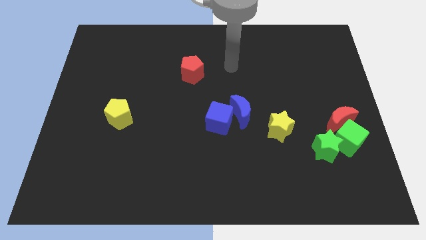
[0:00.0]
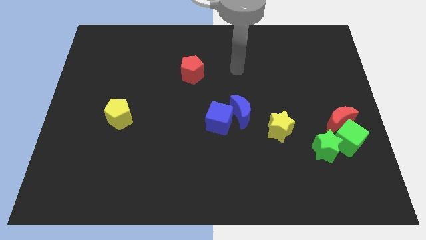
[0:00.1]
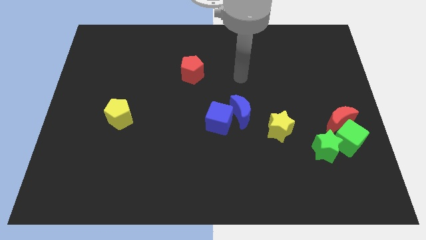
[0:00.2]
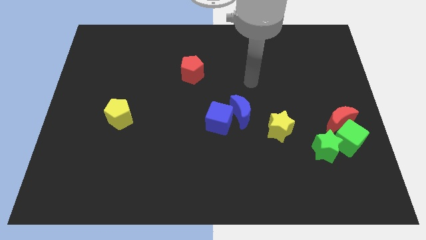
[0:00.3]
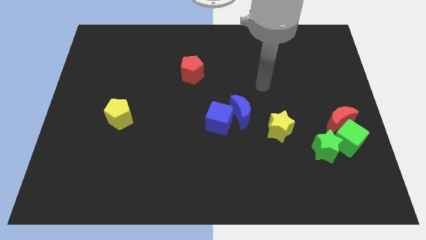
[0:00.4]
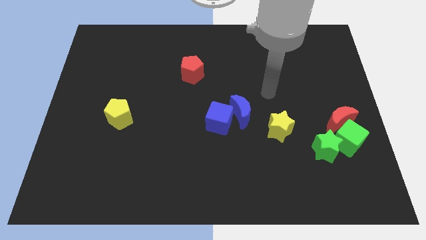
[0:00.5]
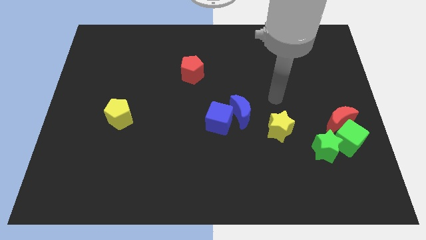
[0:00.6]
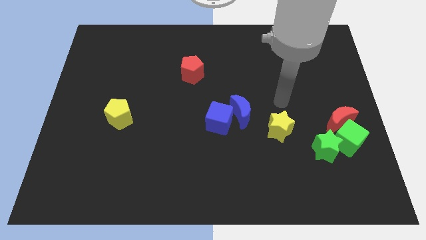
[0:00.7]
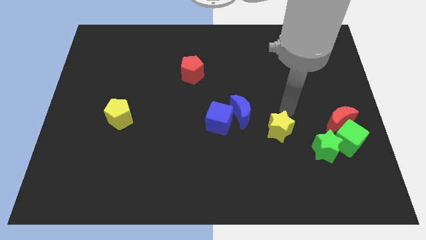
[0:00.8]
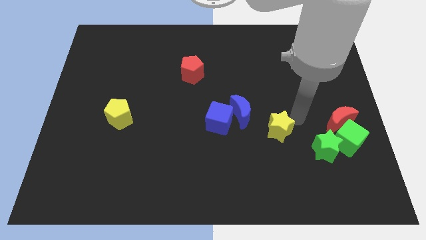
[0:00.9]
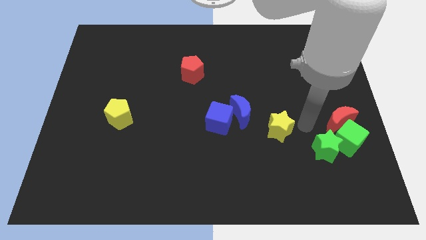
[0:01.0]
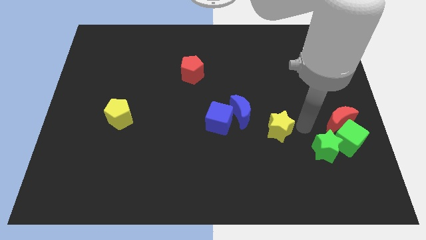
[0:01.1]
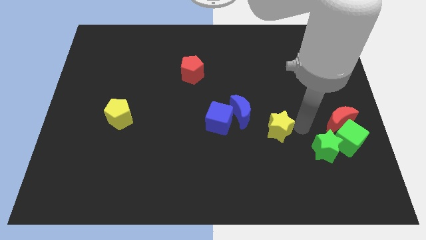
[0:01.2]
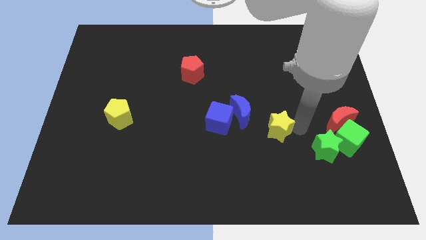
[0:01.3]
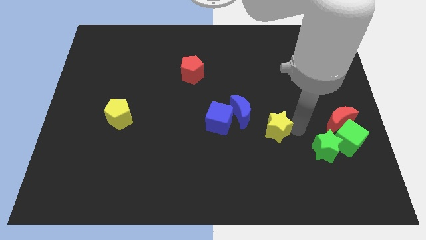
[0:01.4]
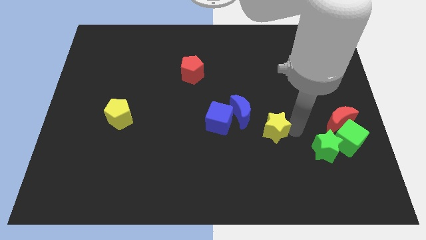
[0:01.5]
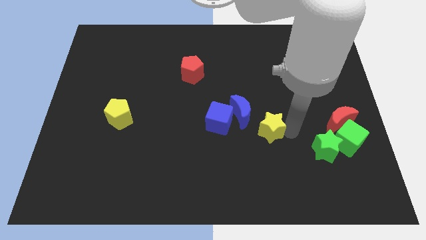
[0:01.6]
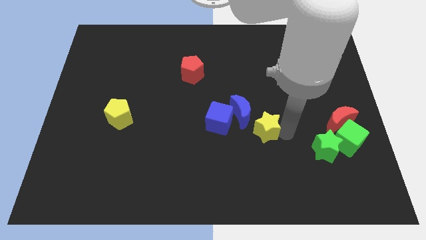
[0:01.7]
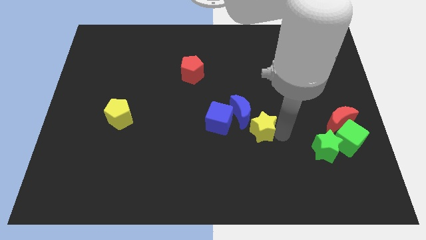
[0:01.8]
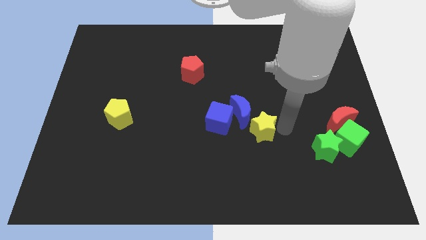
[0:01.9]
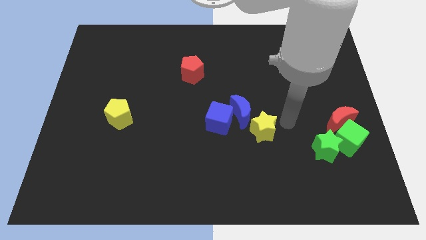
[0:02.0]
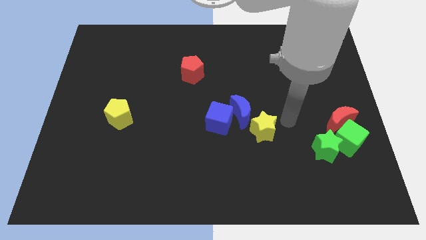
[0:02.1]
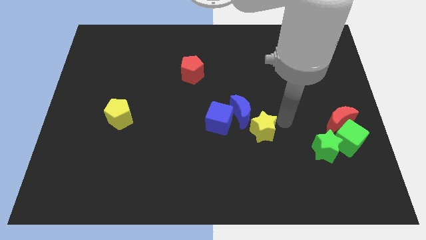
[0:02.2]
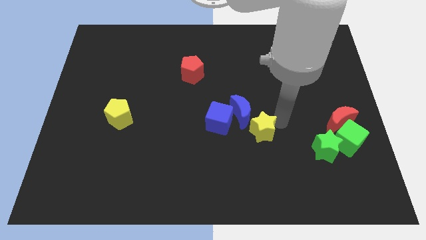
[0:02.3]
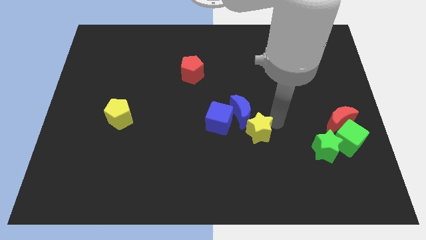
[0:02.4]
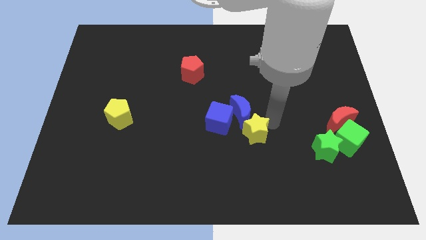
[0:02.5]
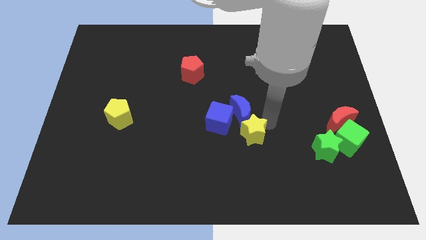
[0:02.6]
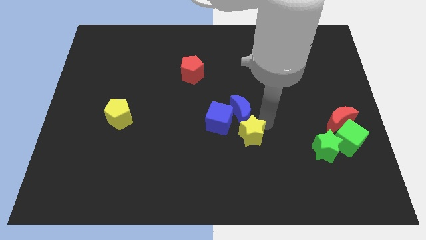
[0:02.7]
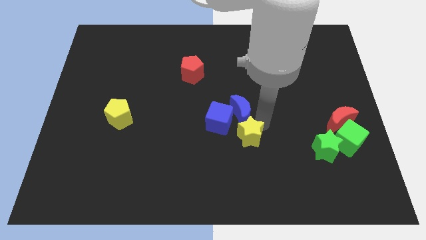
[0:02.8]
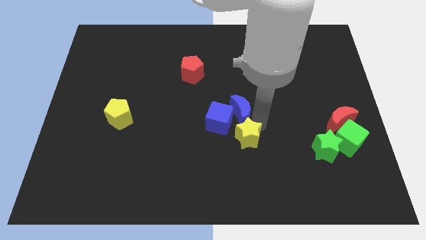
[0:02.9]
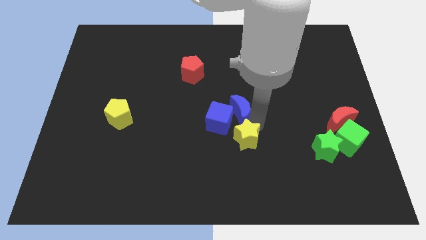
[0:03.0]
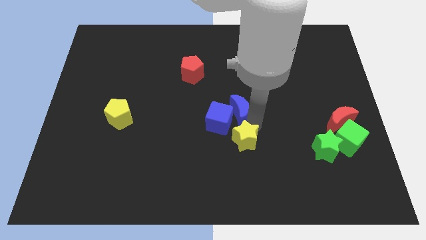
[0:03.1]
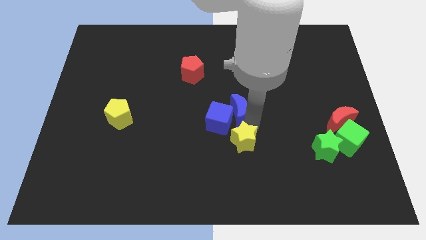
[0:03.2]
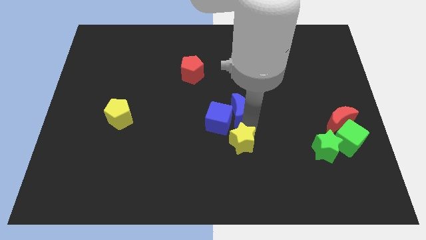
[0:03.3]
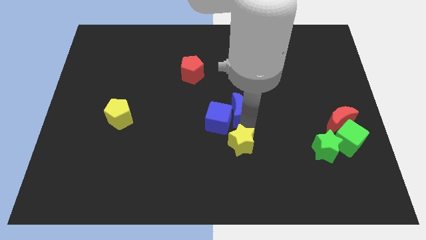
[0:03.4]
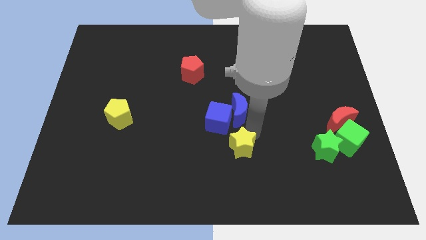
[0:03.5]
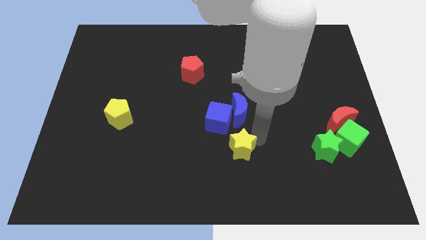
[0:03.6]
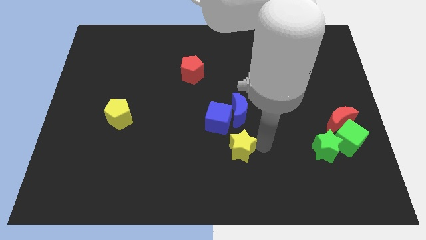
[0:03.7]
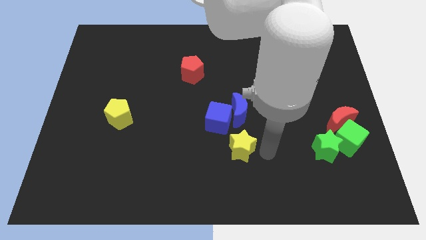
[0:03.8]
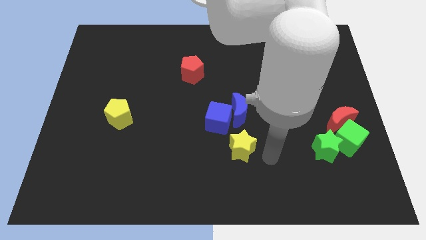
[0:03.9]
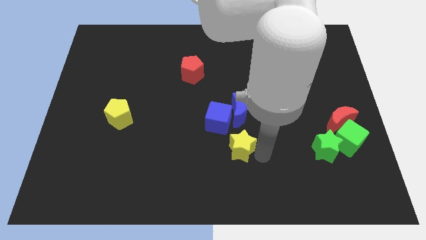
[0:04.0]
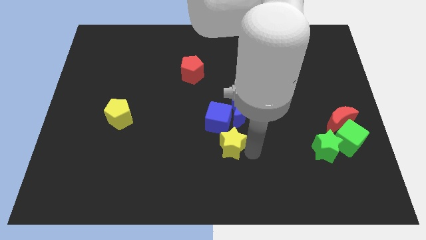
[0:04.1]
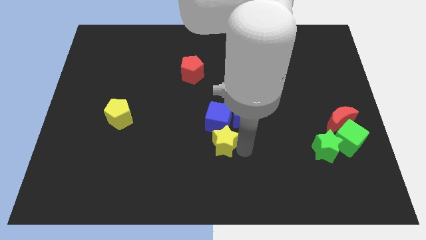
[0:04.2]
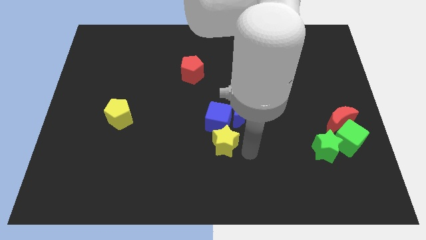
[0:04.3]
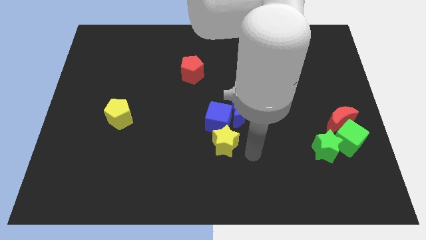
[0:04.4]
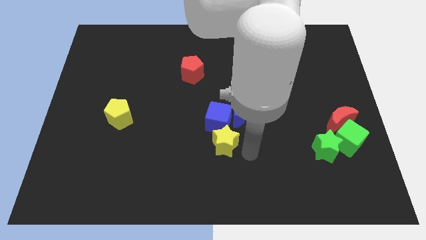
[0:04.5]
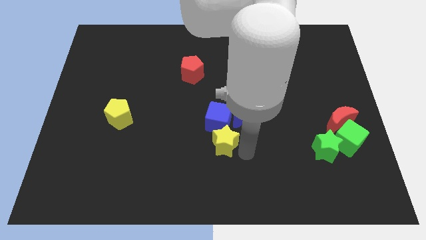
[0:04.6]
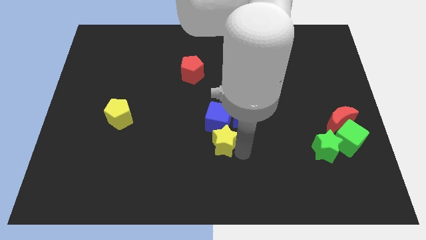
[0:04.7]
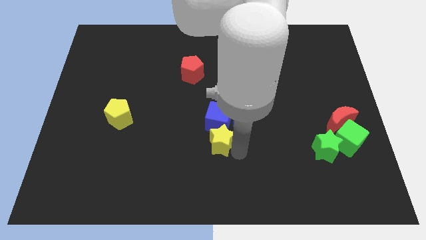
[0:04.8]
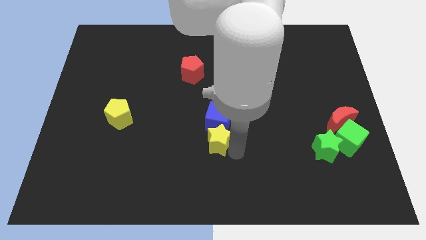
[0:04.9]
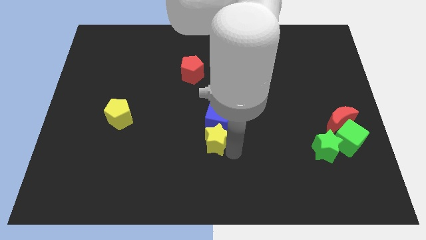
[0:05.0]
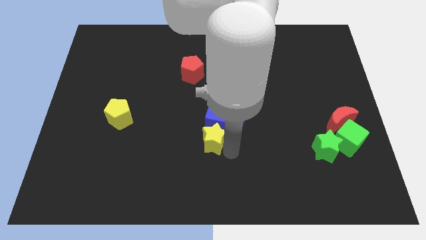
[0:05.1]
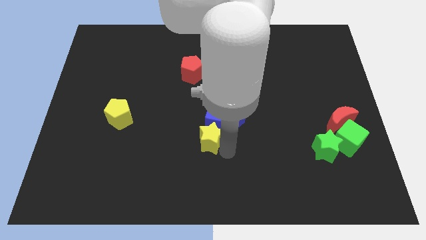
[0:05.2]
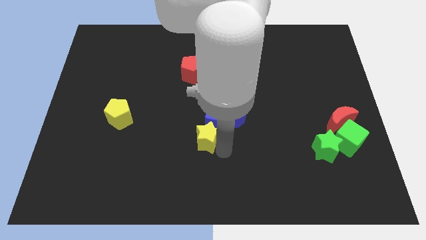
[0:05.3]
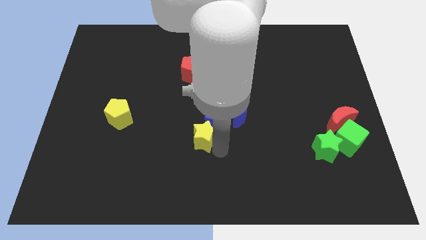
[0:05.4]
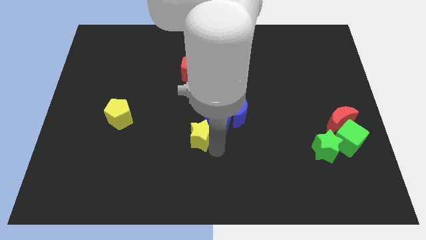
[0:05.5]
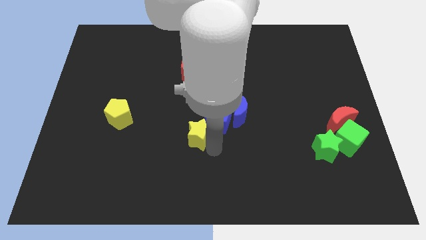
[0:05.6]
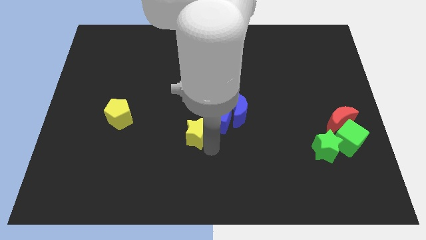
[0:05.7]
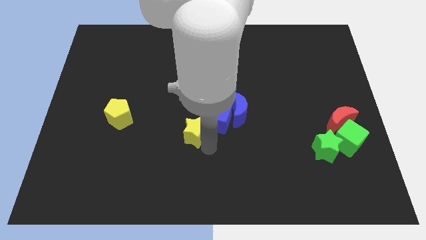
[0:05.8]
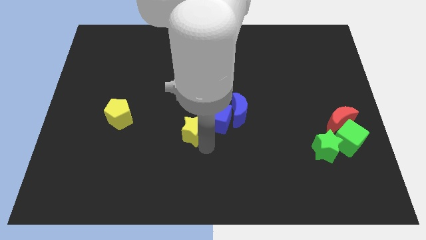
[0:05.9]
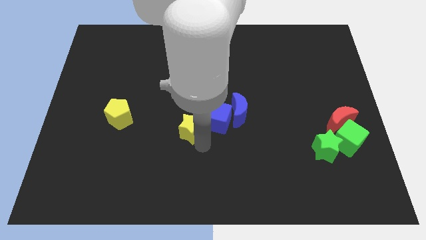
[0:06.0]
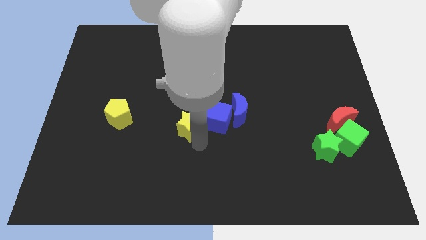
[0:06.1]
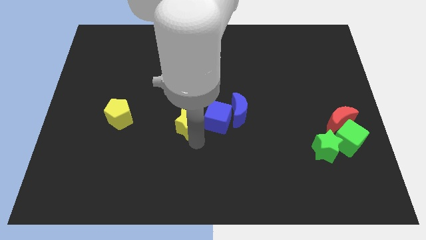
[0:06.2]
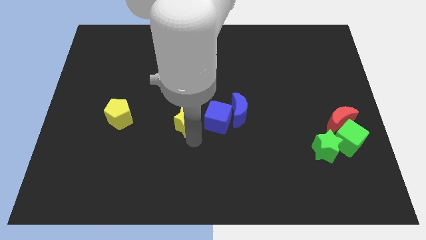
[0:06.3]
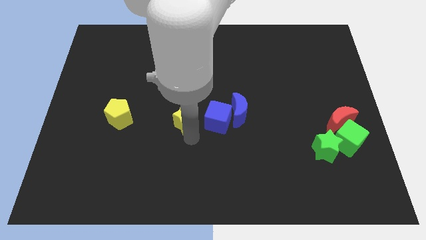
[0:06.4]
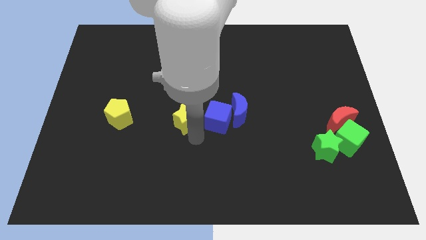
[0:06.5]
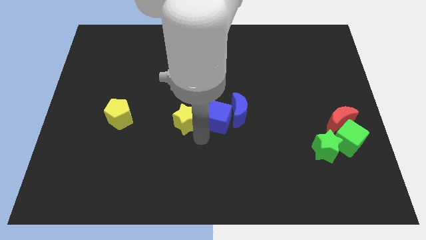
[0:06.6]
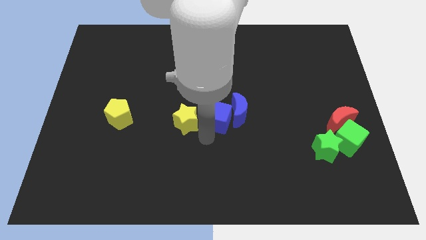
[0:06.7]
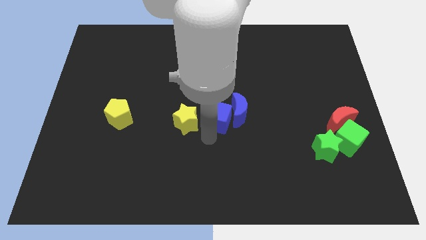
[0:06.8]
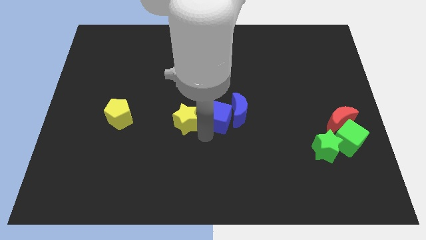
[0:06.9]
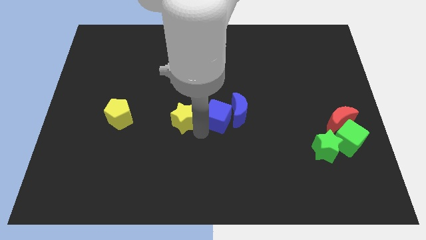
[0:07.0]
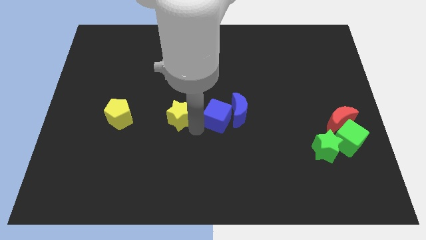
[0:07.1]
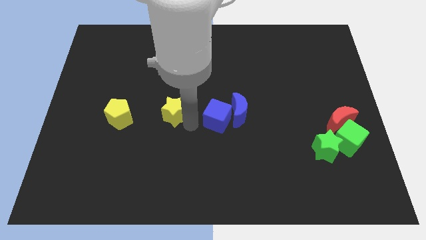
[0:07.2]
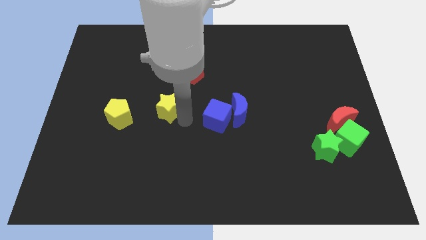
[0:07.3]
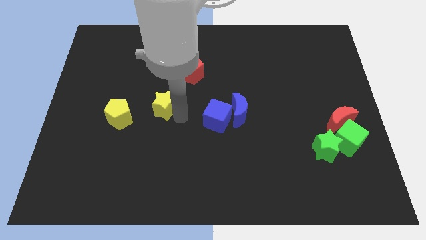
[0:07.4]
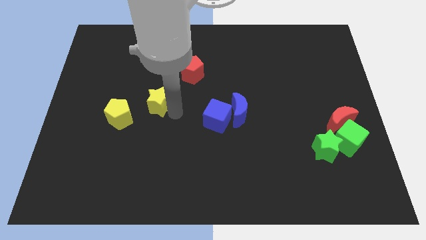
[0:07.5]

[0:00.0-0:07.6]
push the yellow star to the top right side of the yellow pentagon
